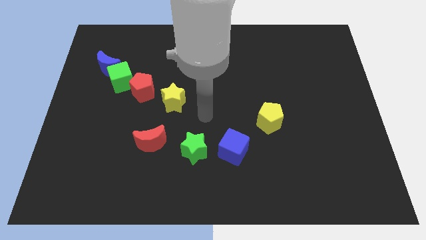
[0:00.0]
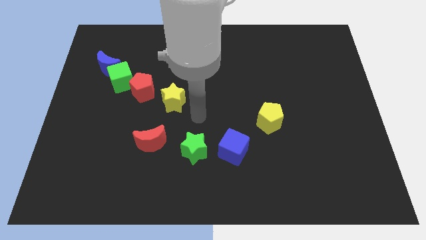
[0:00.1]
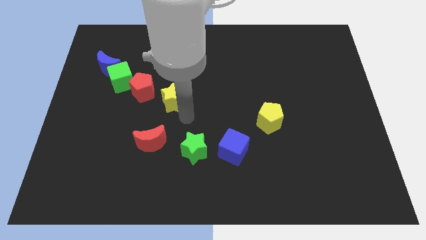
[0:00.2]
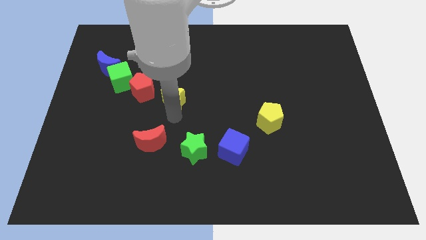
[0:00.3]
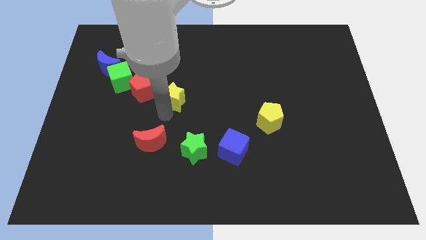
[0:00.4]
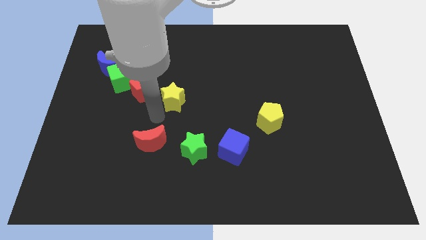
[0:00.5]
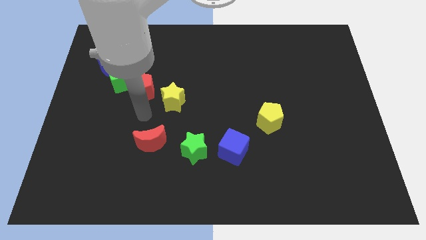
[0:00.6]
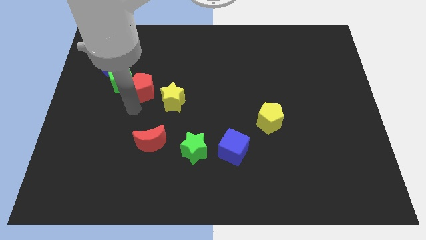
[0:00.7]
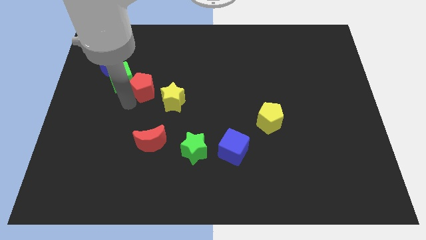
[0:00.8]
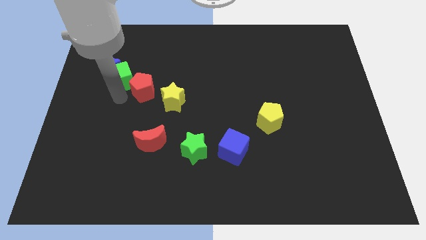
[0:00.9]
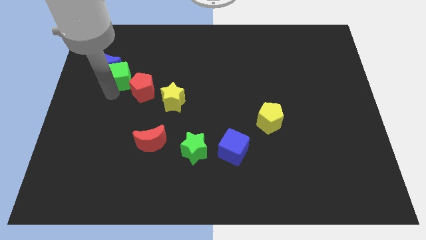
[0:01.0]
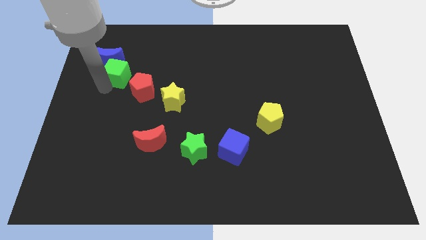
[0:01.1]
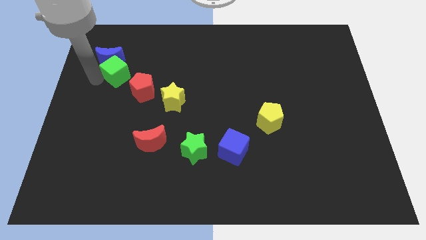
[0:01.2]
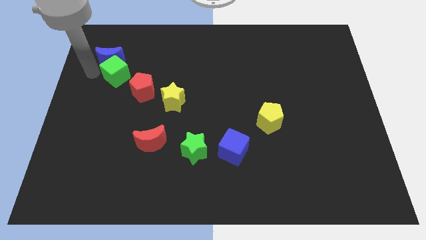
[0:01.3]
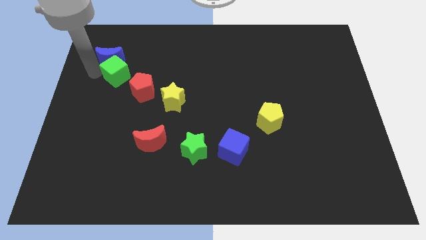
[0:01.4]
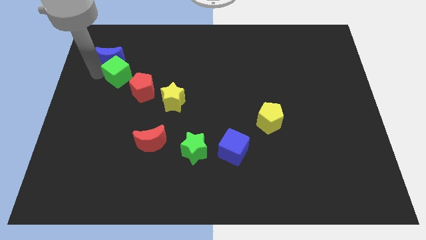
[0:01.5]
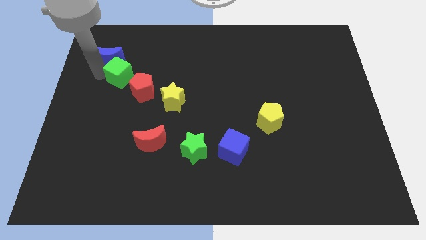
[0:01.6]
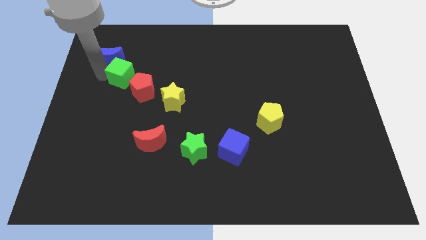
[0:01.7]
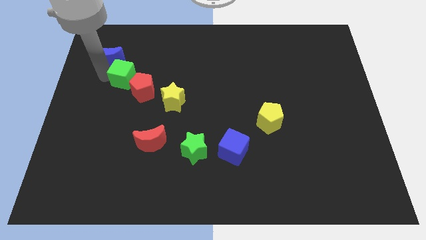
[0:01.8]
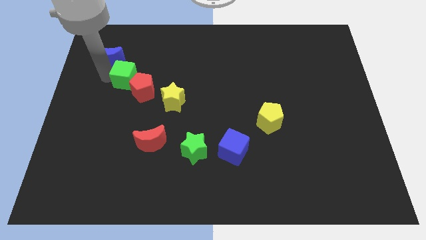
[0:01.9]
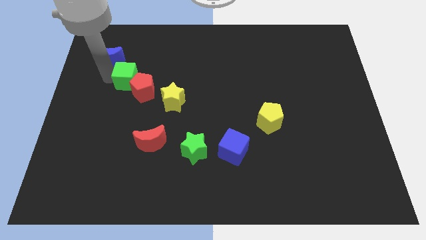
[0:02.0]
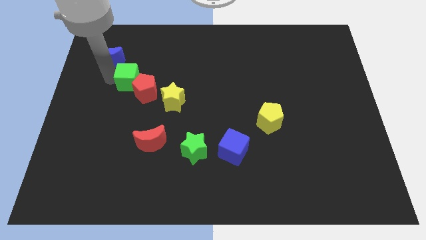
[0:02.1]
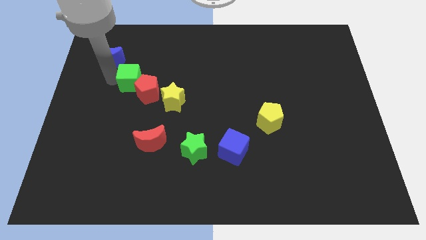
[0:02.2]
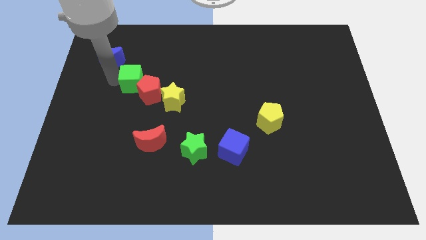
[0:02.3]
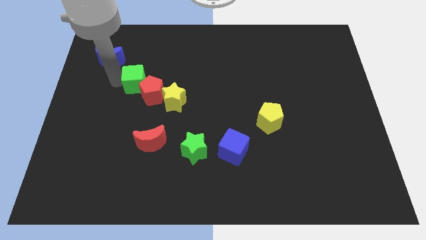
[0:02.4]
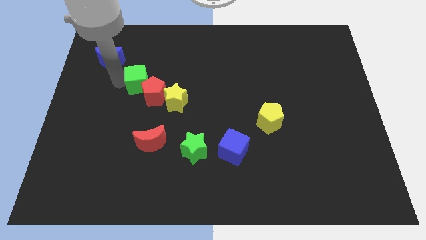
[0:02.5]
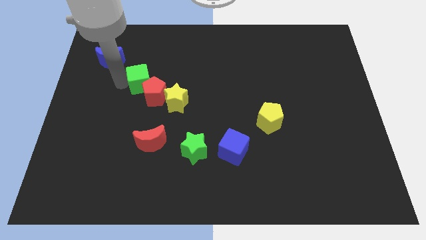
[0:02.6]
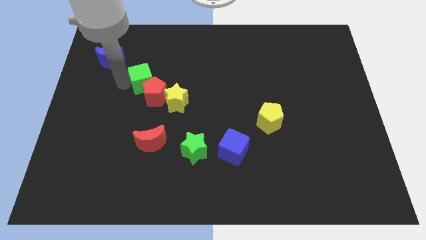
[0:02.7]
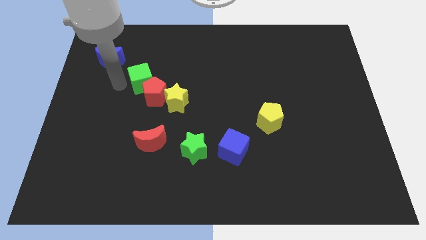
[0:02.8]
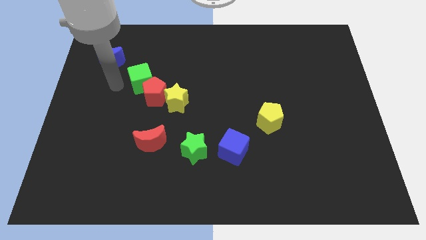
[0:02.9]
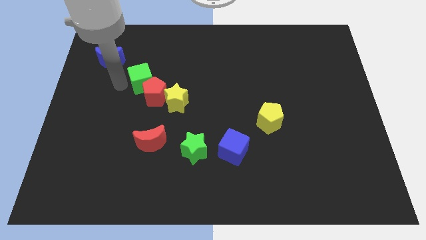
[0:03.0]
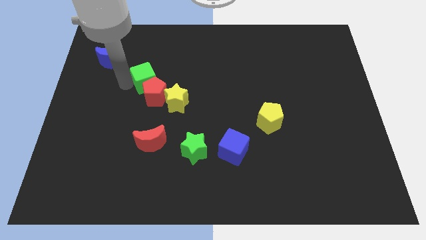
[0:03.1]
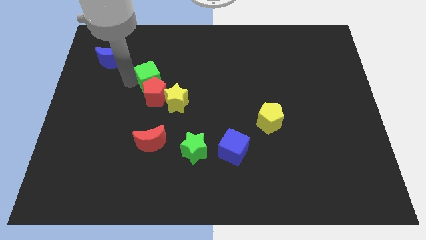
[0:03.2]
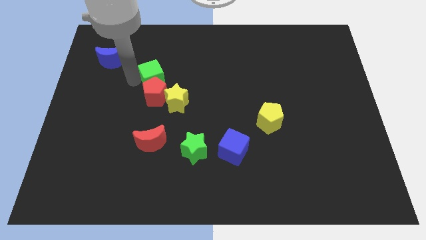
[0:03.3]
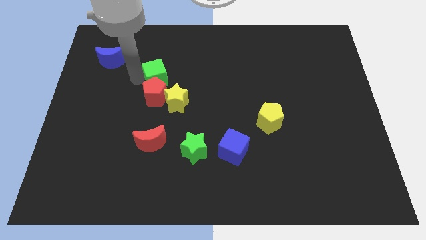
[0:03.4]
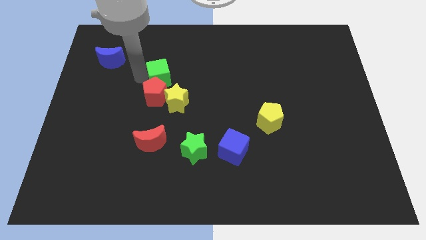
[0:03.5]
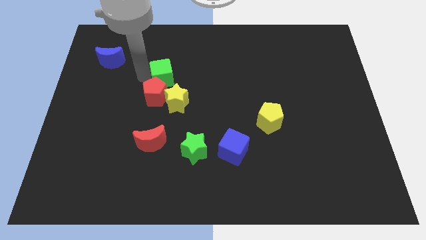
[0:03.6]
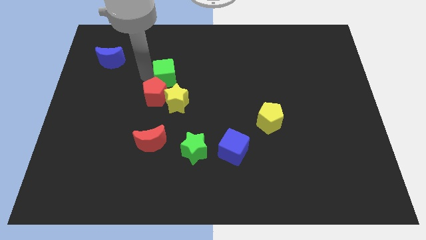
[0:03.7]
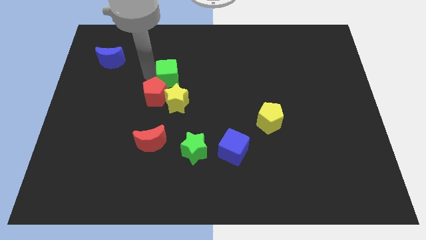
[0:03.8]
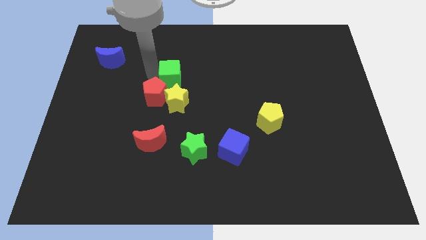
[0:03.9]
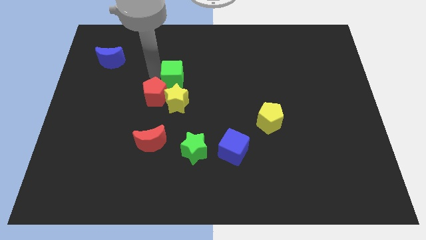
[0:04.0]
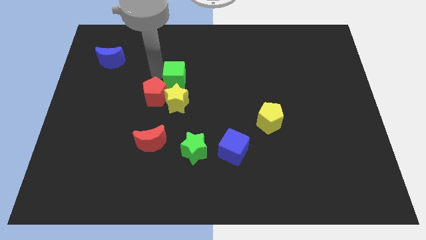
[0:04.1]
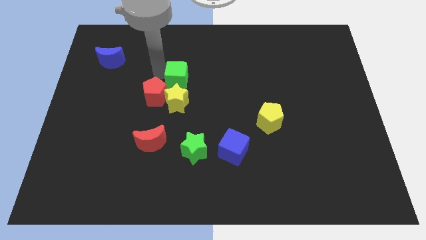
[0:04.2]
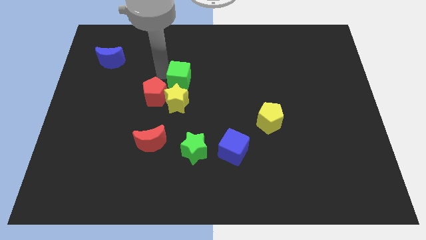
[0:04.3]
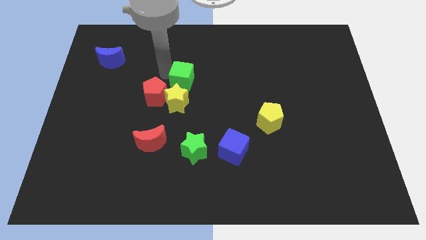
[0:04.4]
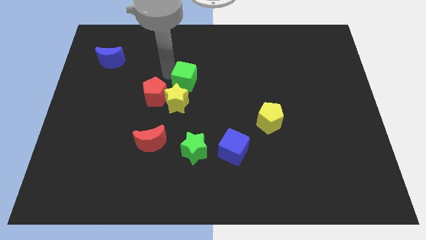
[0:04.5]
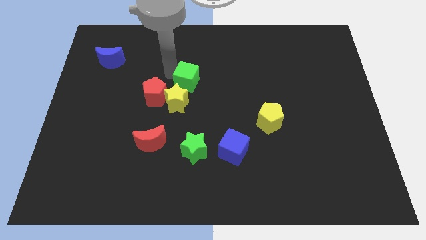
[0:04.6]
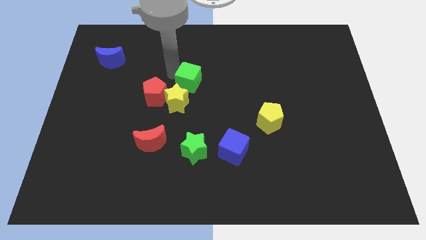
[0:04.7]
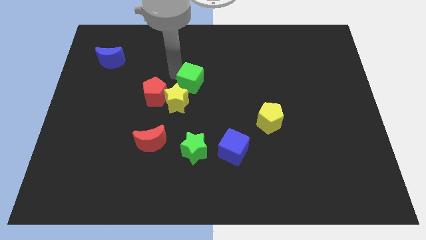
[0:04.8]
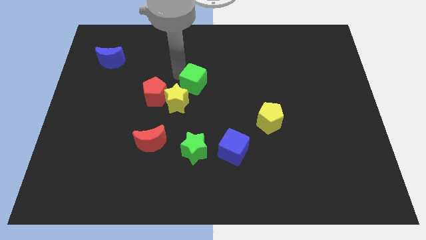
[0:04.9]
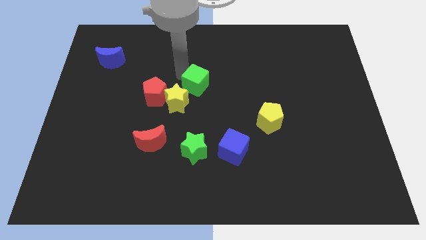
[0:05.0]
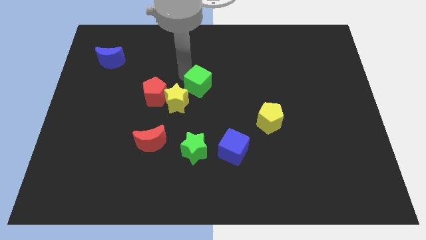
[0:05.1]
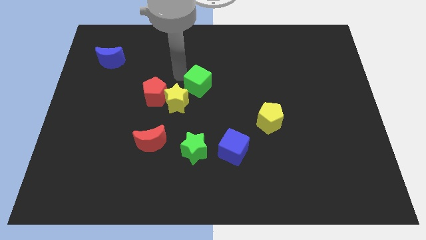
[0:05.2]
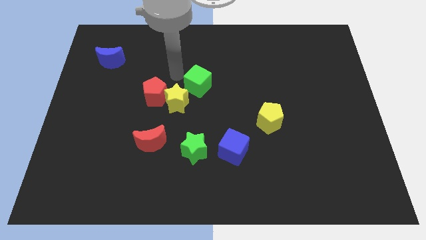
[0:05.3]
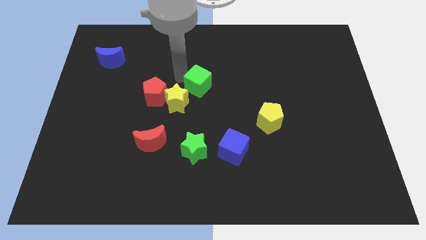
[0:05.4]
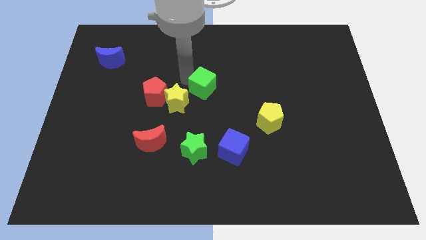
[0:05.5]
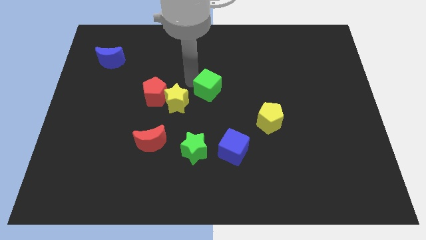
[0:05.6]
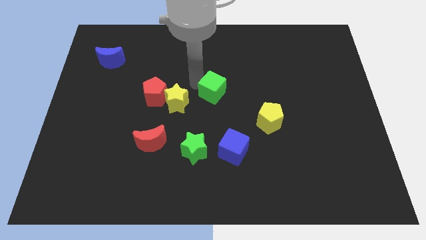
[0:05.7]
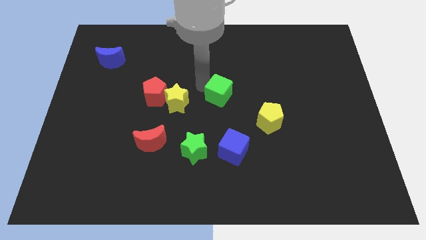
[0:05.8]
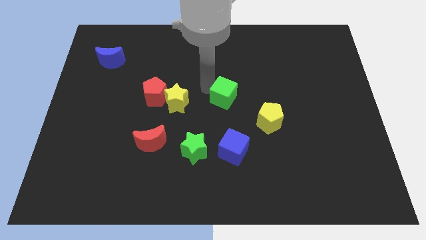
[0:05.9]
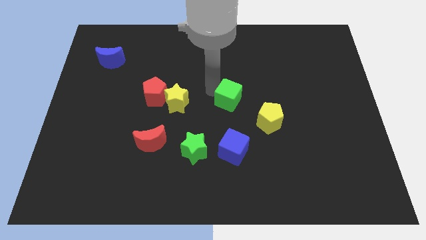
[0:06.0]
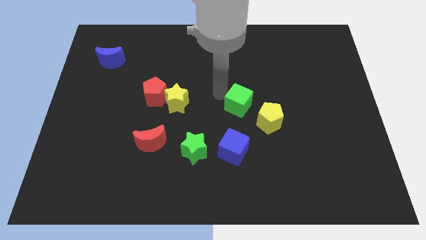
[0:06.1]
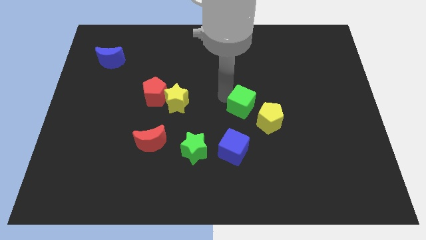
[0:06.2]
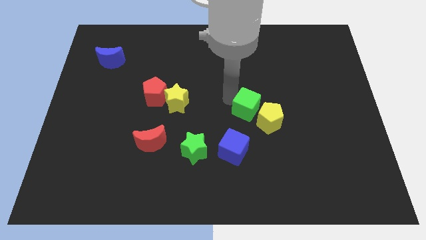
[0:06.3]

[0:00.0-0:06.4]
slide the green cube to the yellow pentagon

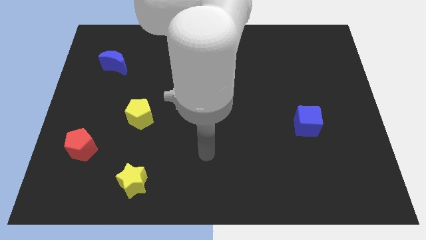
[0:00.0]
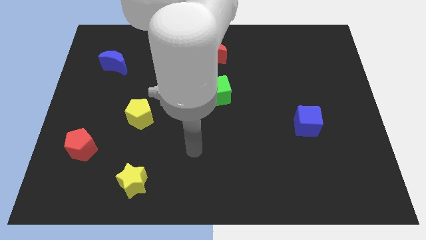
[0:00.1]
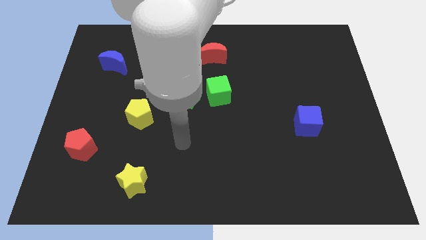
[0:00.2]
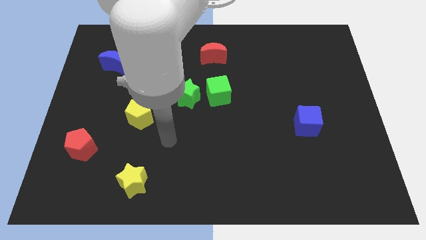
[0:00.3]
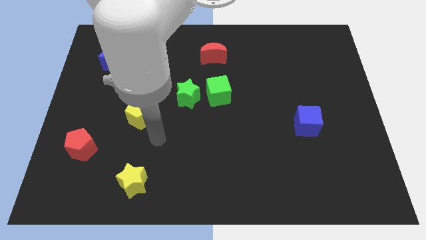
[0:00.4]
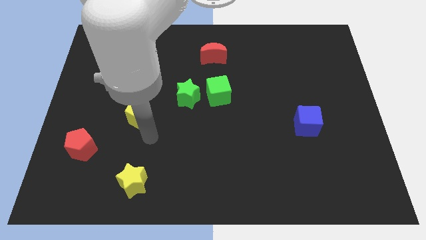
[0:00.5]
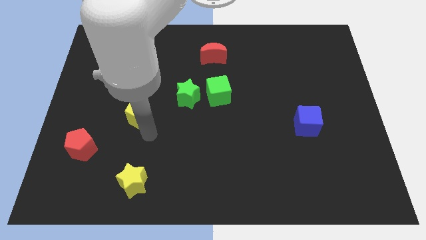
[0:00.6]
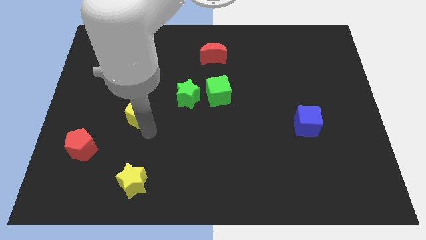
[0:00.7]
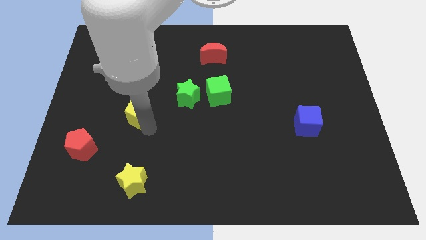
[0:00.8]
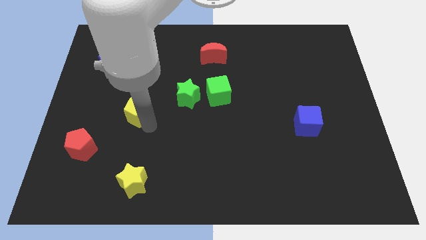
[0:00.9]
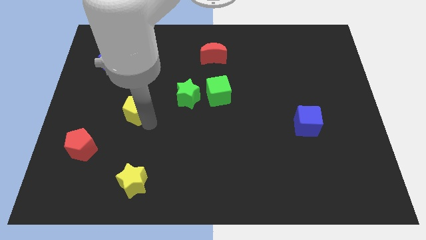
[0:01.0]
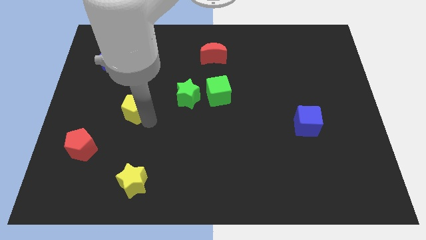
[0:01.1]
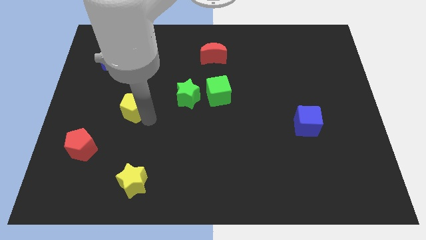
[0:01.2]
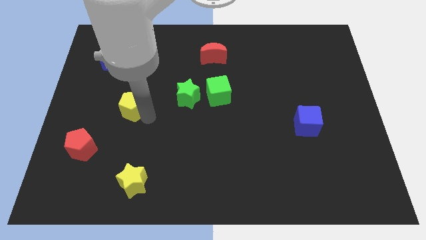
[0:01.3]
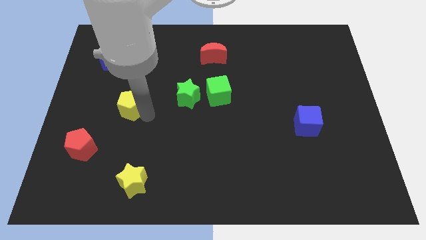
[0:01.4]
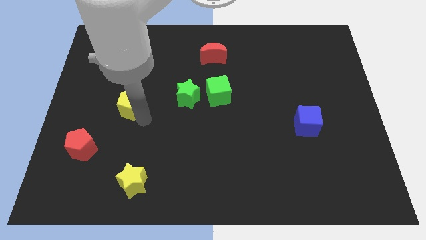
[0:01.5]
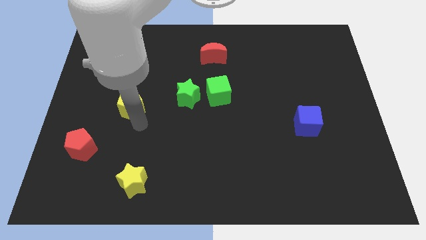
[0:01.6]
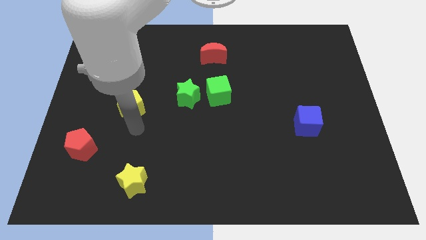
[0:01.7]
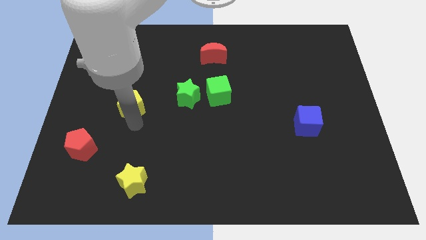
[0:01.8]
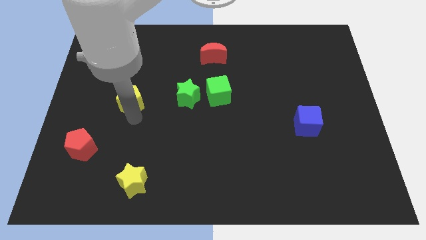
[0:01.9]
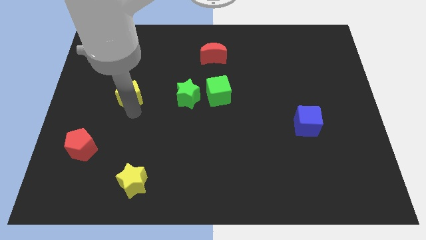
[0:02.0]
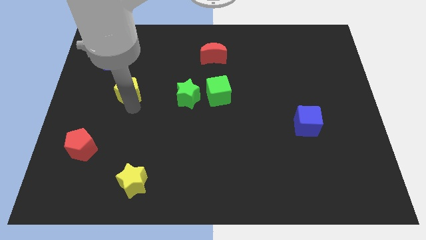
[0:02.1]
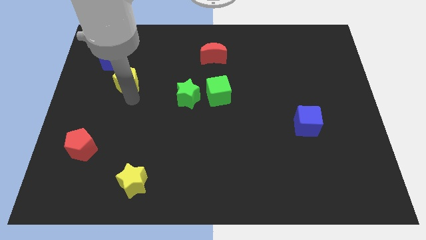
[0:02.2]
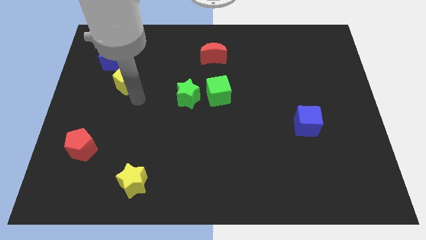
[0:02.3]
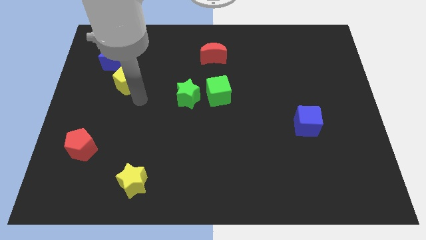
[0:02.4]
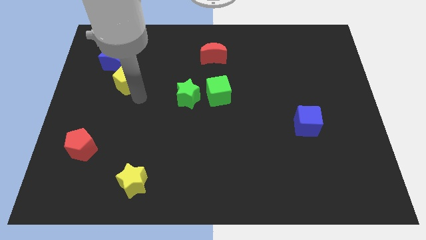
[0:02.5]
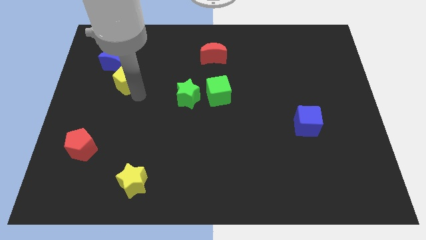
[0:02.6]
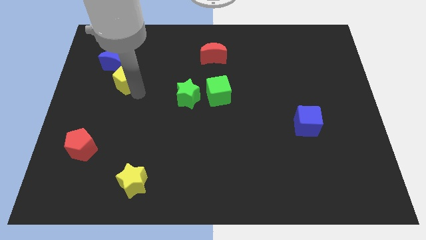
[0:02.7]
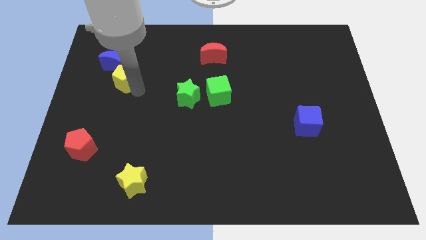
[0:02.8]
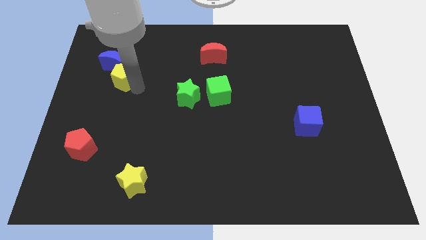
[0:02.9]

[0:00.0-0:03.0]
move the yellow pentagon towards the blue moon
